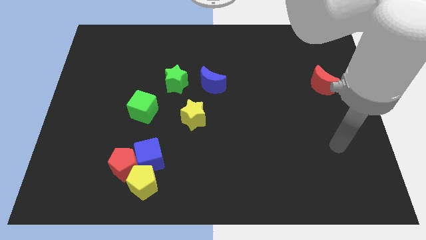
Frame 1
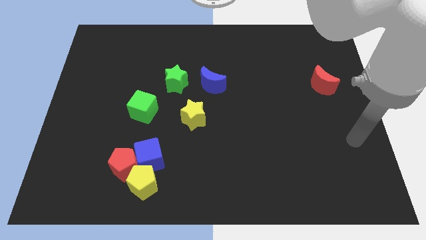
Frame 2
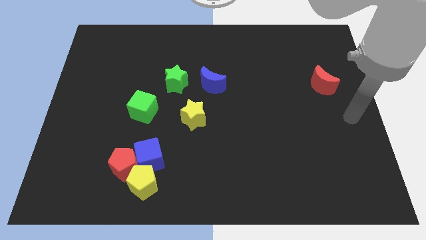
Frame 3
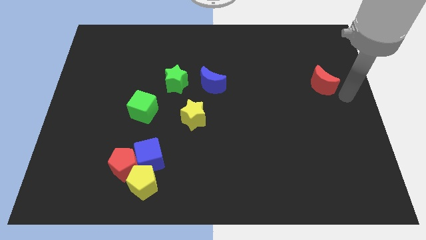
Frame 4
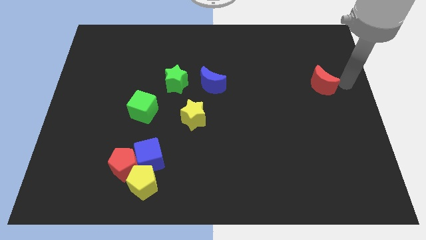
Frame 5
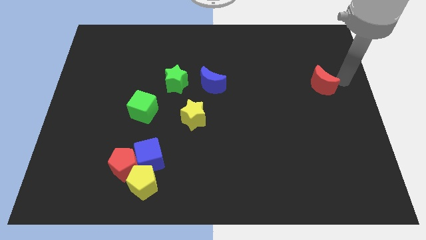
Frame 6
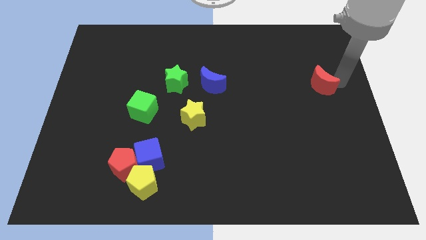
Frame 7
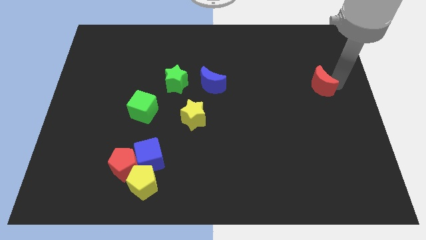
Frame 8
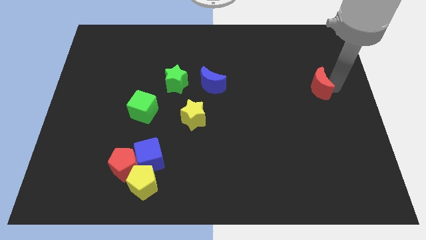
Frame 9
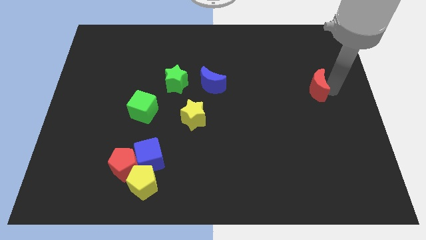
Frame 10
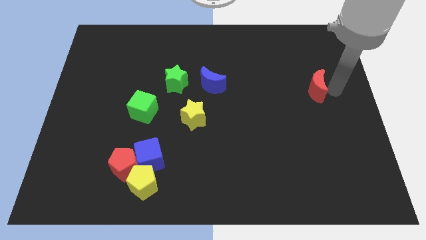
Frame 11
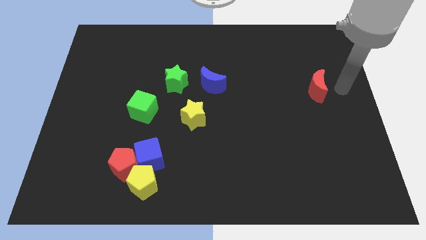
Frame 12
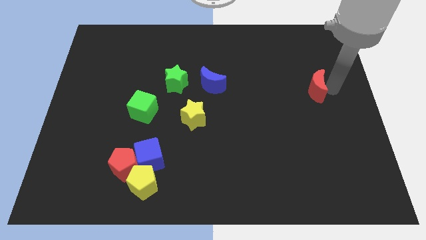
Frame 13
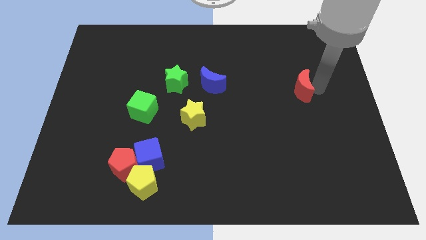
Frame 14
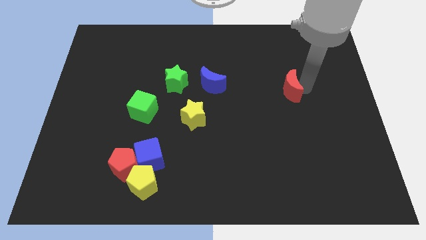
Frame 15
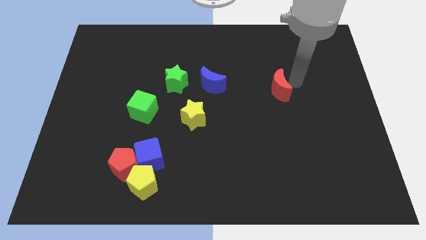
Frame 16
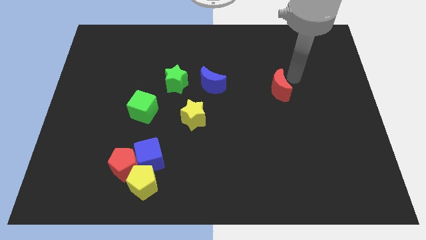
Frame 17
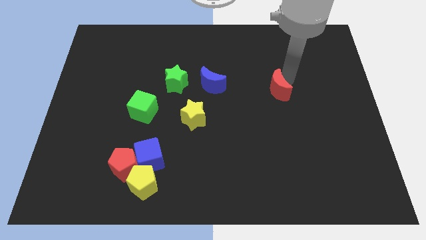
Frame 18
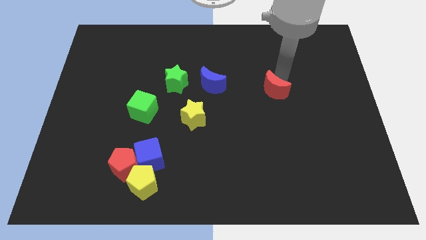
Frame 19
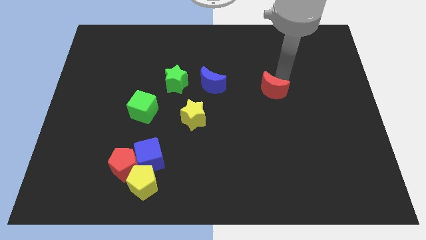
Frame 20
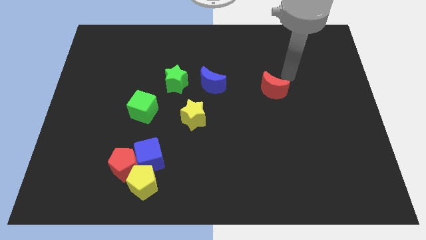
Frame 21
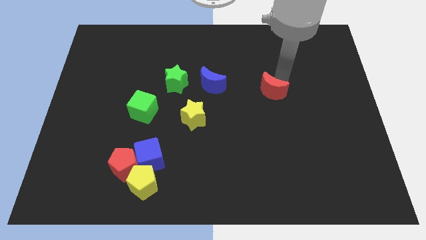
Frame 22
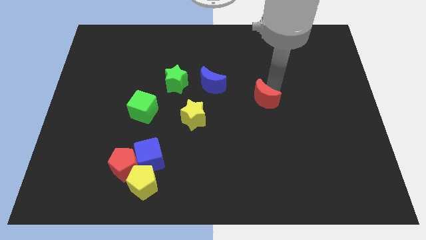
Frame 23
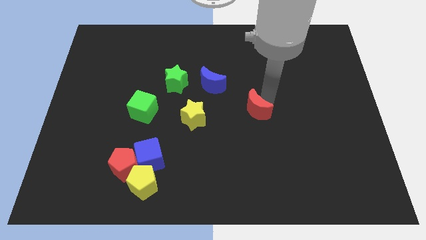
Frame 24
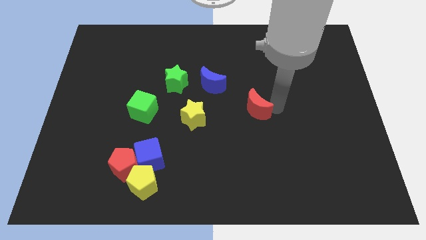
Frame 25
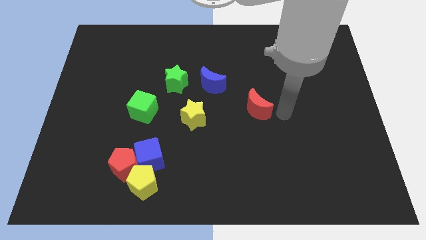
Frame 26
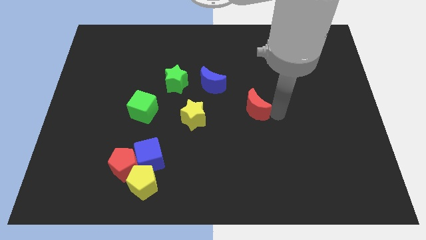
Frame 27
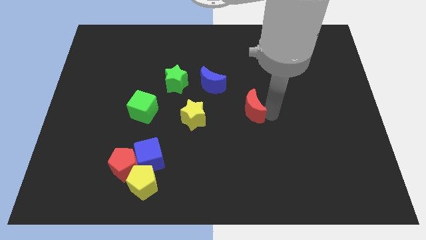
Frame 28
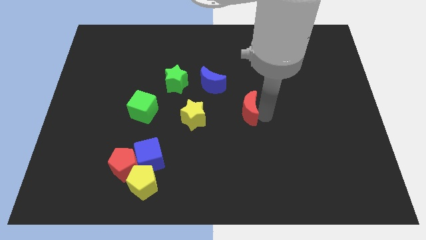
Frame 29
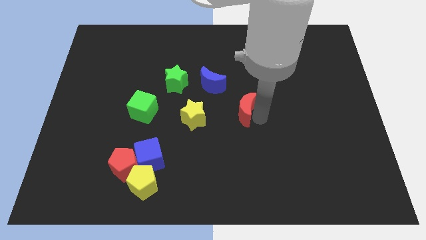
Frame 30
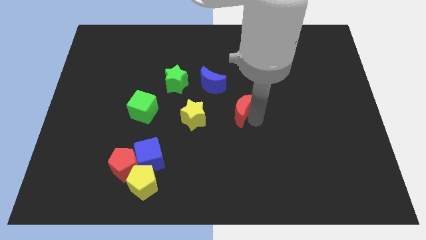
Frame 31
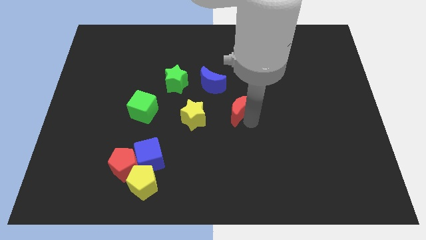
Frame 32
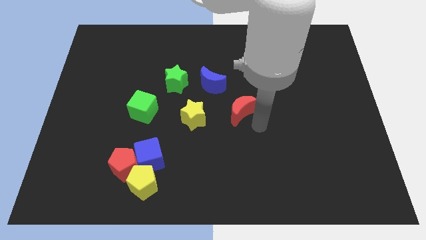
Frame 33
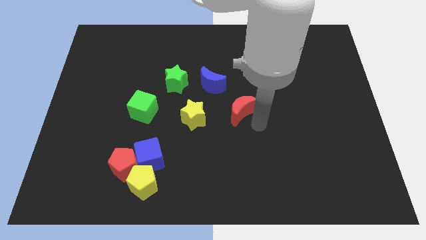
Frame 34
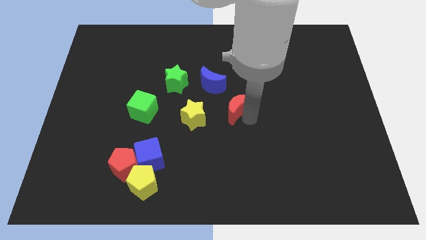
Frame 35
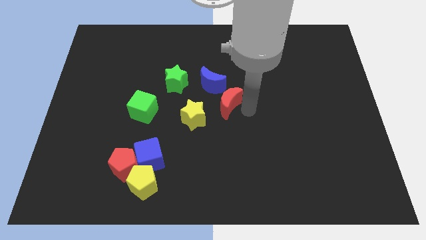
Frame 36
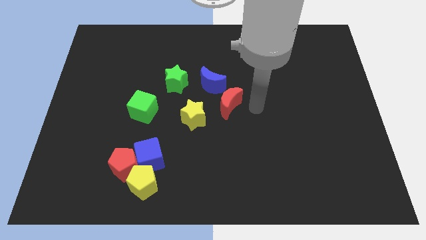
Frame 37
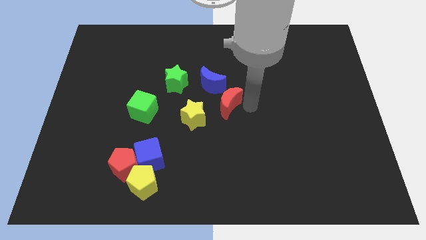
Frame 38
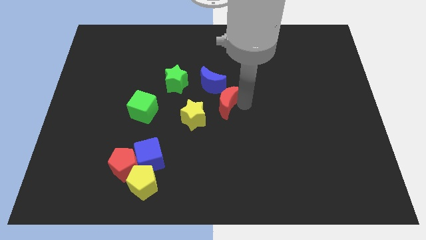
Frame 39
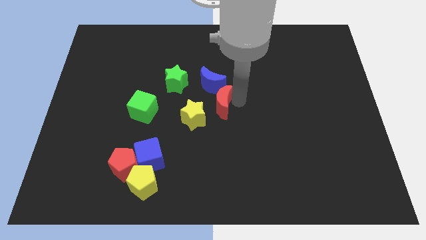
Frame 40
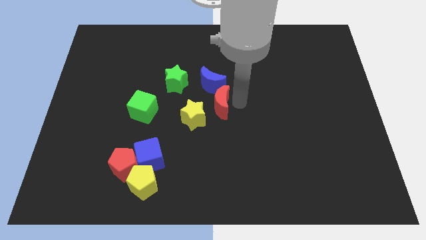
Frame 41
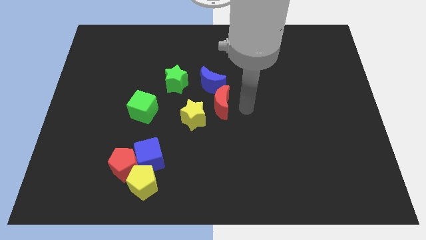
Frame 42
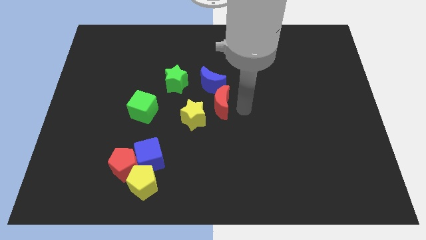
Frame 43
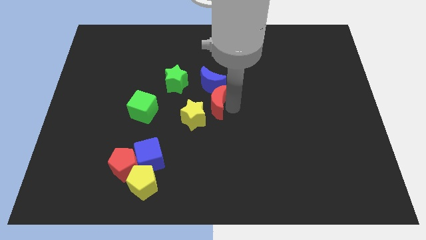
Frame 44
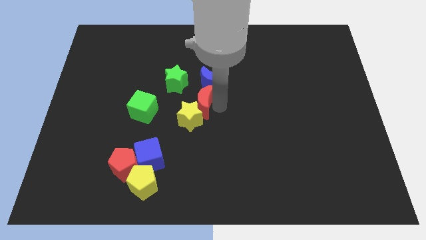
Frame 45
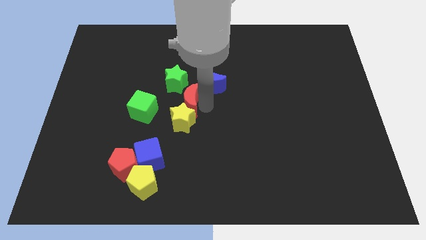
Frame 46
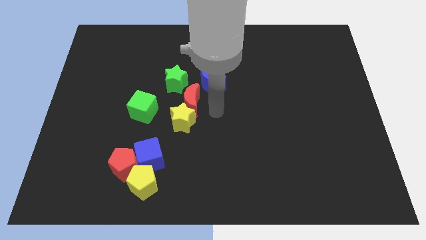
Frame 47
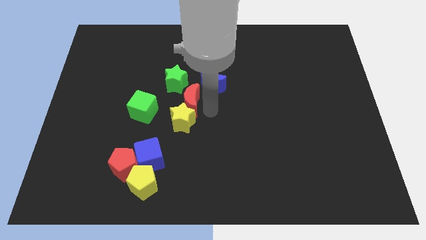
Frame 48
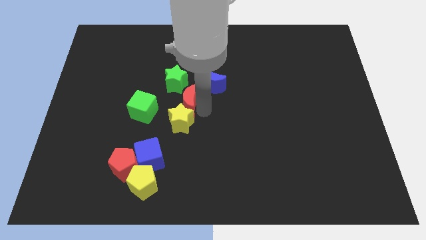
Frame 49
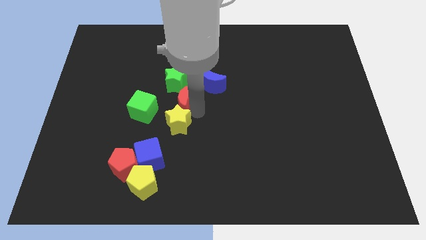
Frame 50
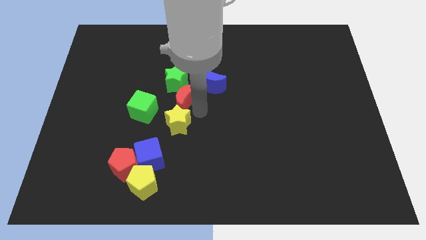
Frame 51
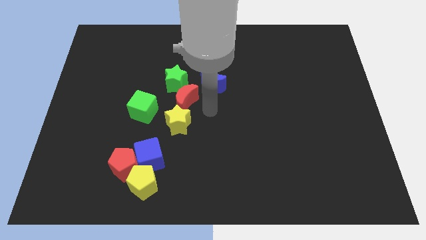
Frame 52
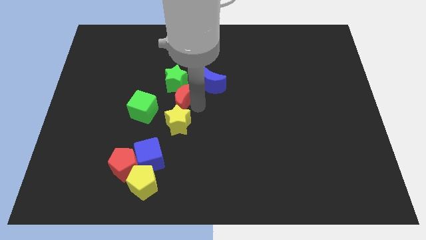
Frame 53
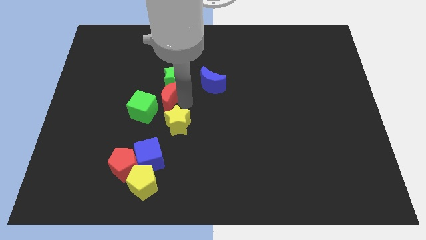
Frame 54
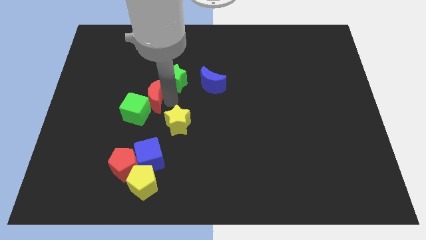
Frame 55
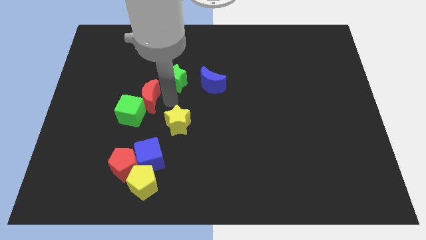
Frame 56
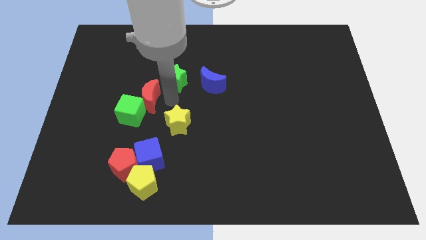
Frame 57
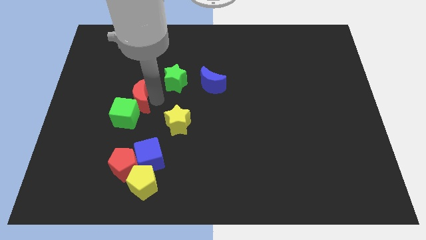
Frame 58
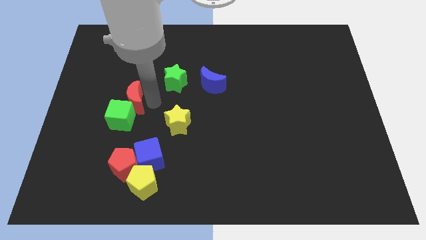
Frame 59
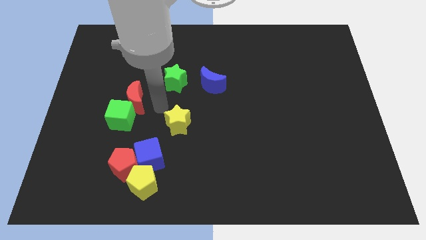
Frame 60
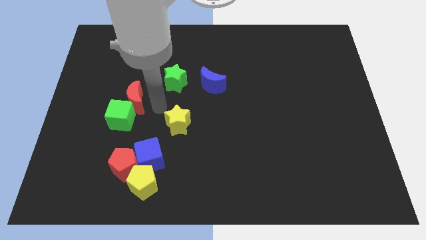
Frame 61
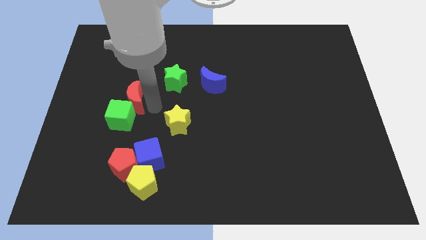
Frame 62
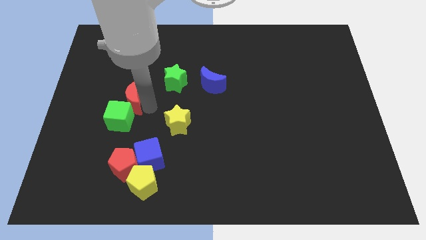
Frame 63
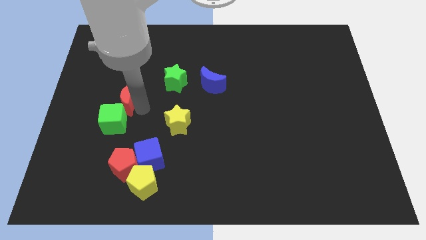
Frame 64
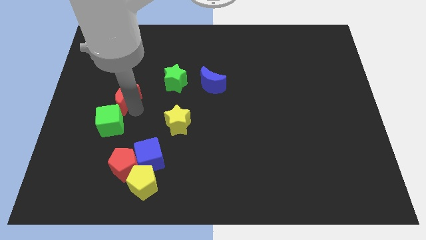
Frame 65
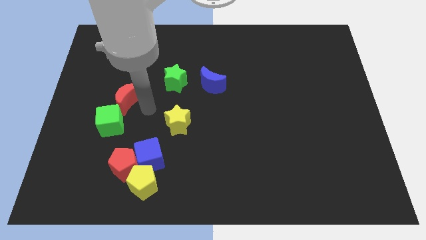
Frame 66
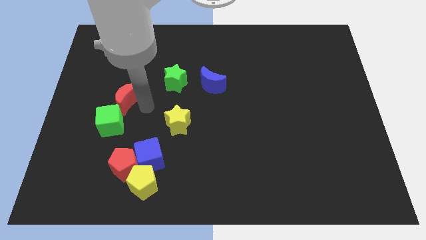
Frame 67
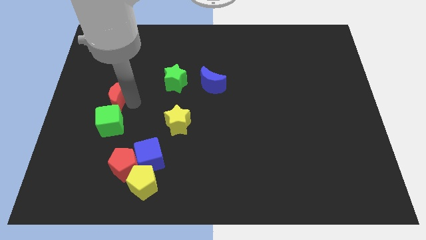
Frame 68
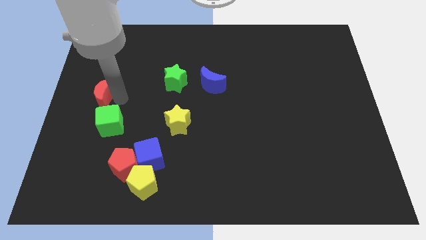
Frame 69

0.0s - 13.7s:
move the red moon to the left side

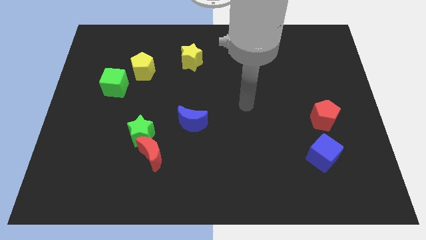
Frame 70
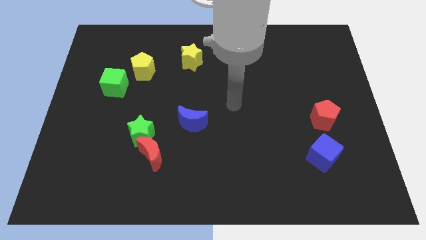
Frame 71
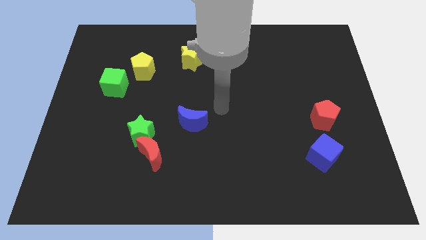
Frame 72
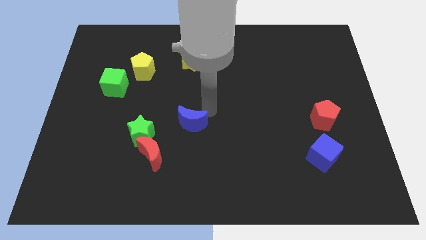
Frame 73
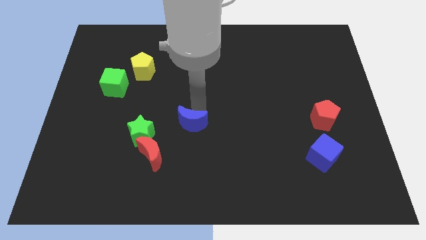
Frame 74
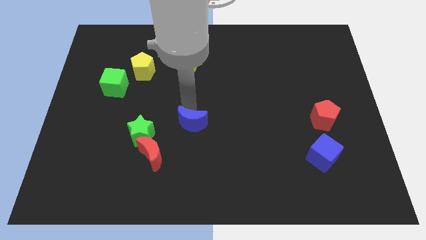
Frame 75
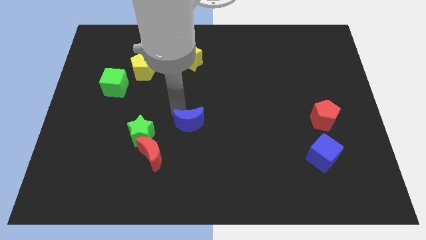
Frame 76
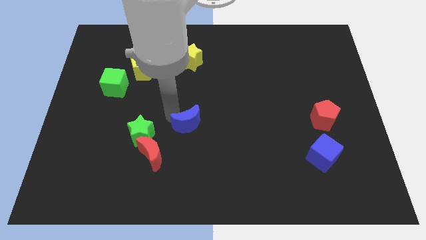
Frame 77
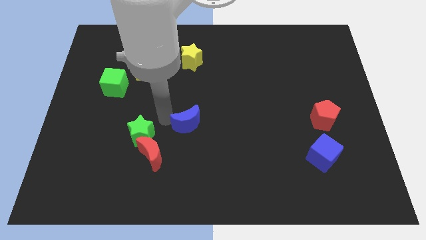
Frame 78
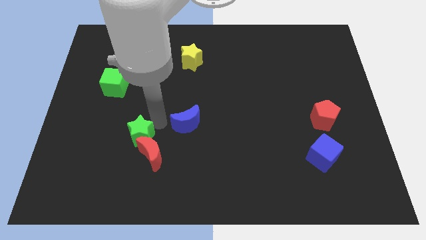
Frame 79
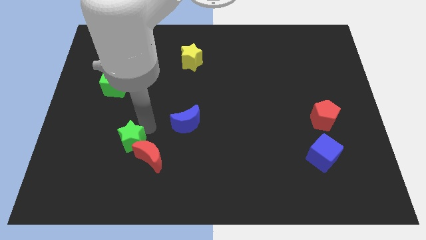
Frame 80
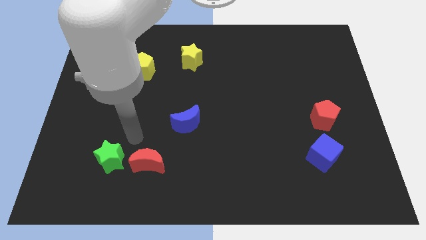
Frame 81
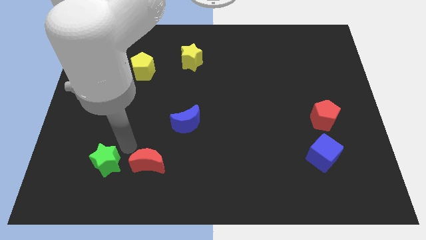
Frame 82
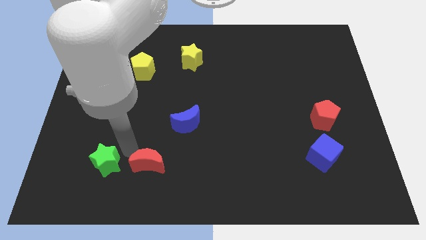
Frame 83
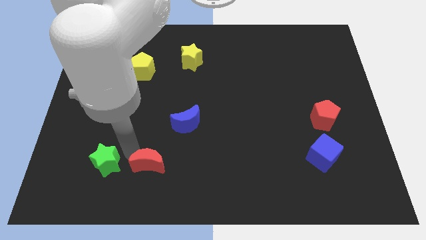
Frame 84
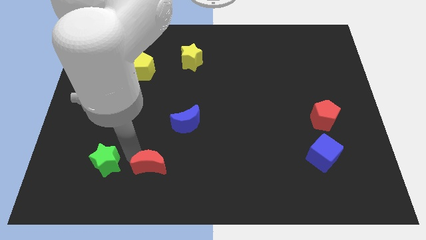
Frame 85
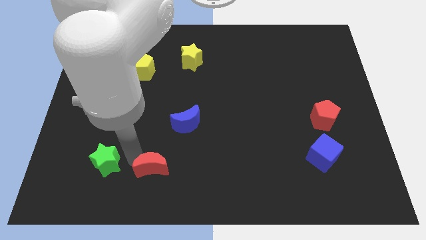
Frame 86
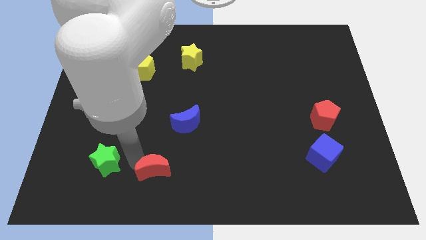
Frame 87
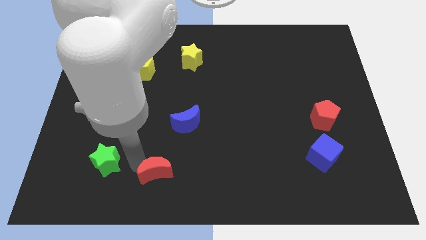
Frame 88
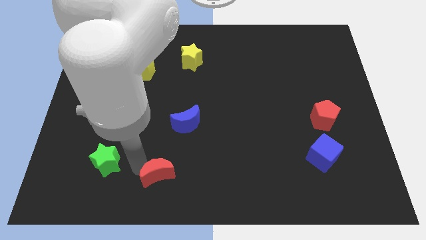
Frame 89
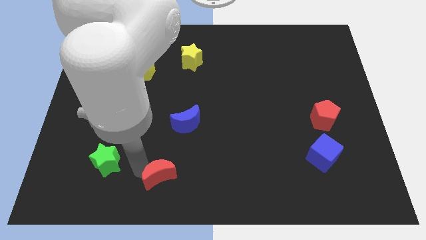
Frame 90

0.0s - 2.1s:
put the red moon to the bottom
